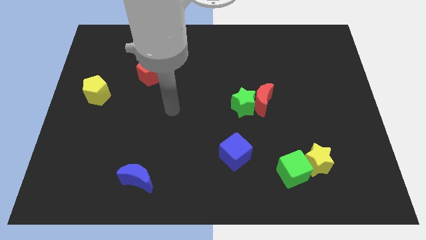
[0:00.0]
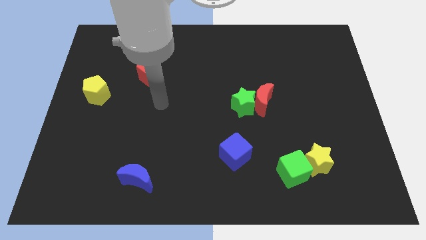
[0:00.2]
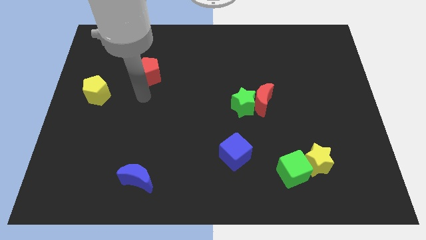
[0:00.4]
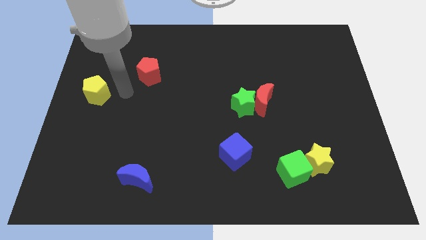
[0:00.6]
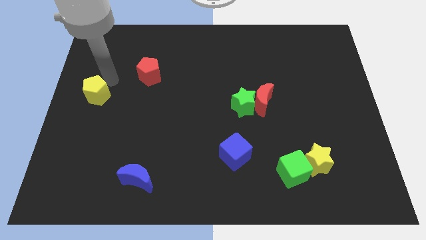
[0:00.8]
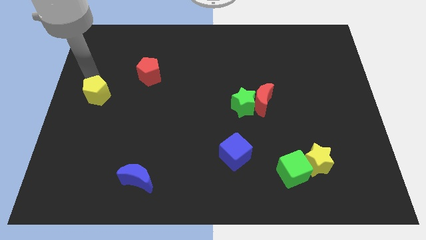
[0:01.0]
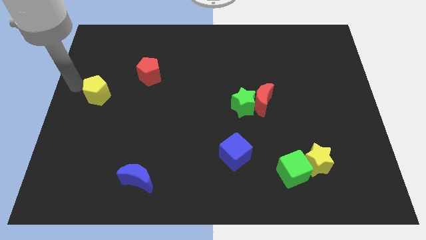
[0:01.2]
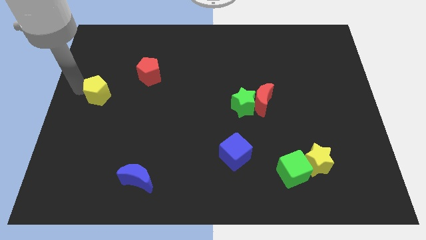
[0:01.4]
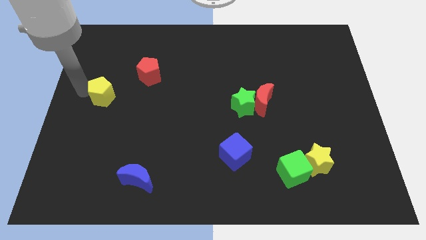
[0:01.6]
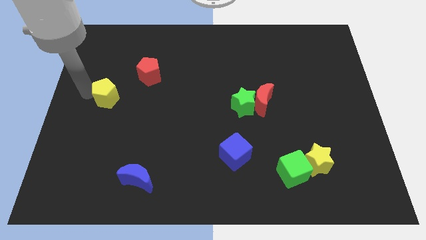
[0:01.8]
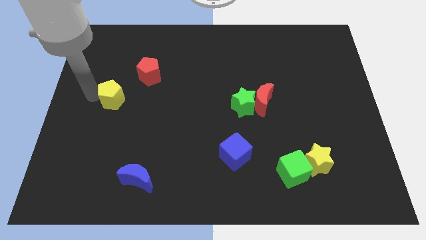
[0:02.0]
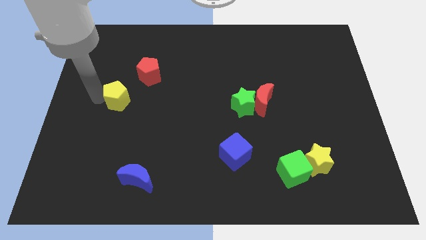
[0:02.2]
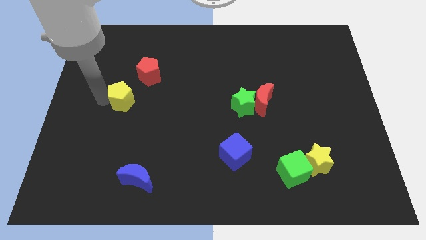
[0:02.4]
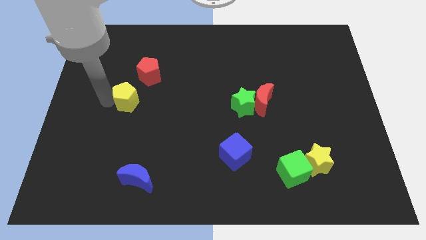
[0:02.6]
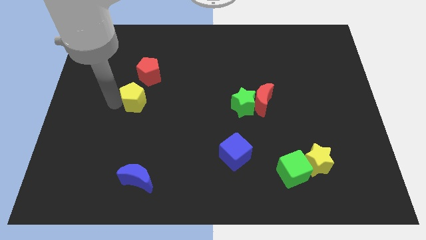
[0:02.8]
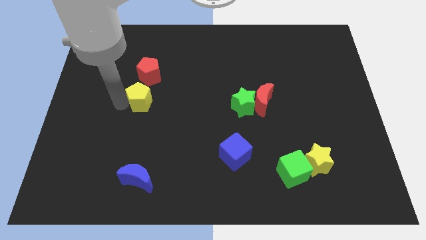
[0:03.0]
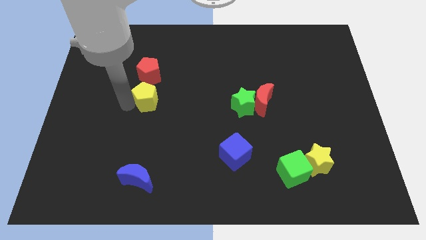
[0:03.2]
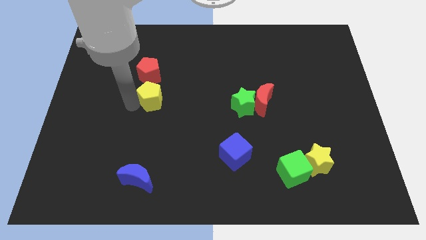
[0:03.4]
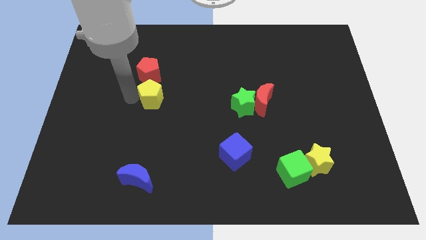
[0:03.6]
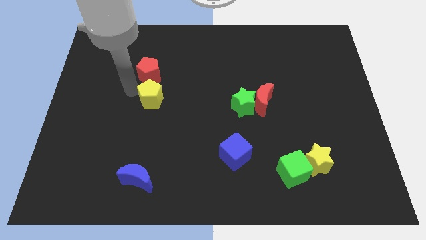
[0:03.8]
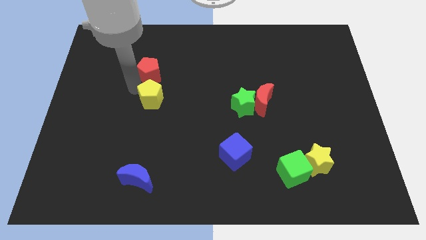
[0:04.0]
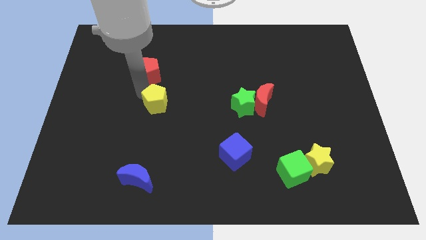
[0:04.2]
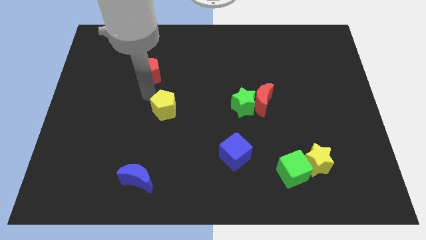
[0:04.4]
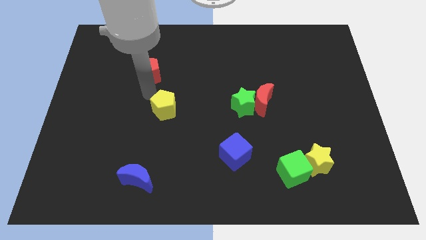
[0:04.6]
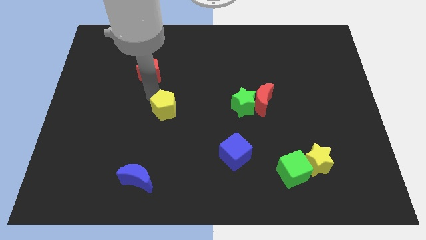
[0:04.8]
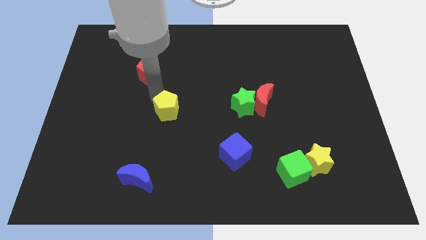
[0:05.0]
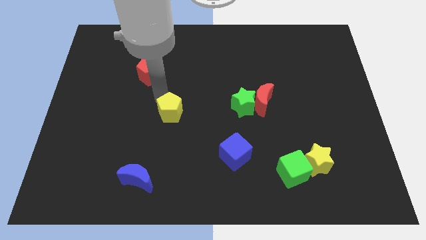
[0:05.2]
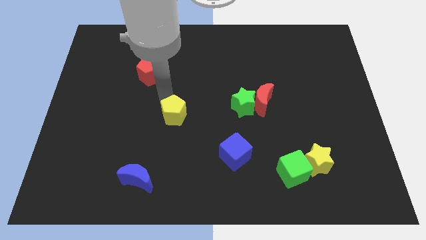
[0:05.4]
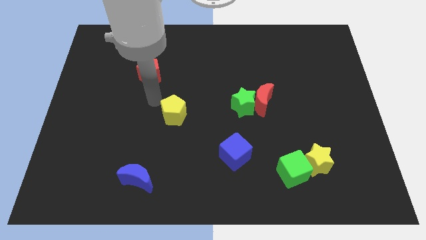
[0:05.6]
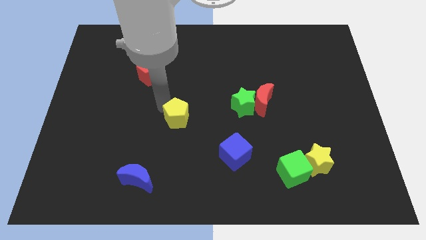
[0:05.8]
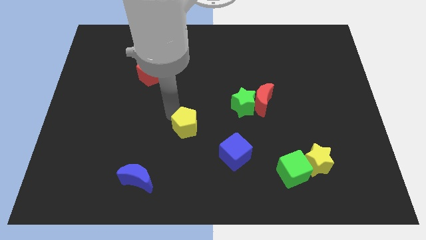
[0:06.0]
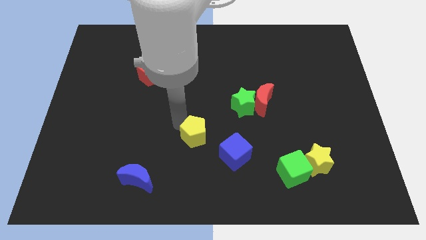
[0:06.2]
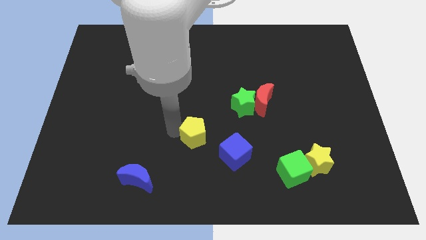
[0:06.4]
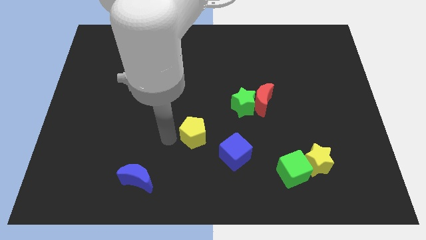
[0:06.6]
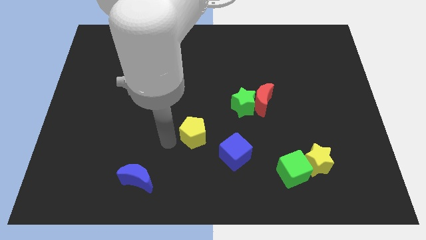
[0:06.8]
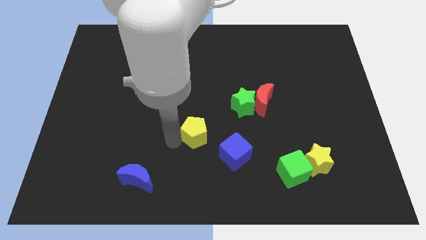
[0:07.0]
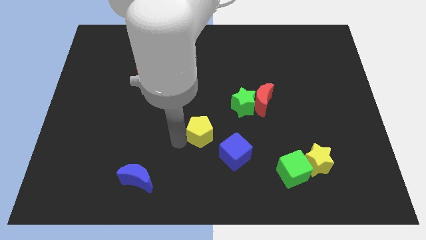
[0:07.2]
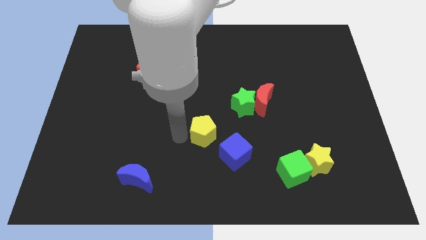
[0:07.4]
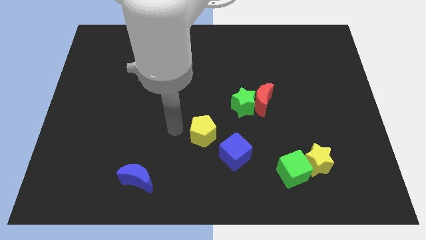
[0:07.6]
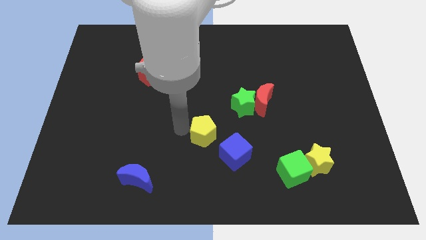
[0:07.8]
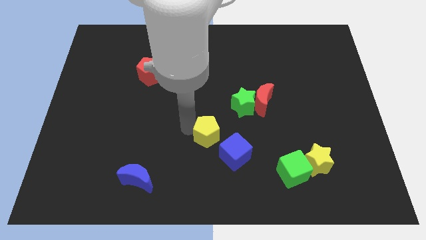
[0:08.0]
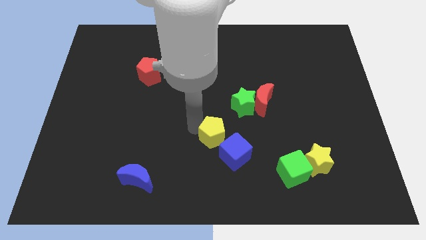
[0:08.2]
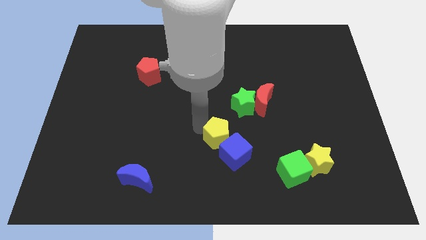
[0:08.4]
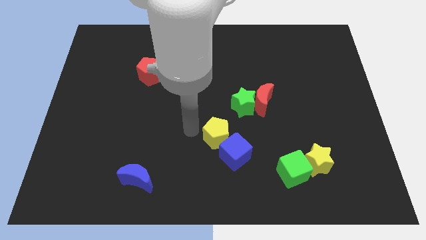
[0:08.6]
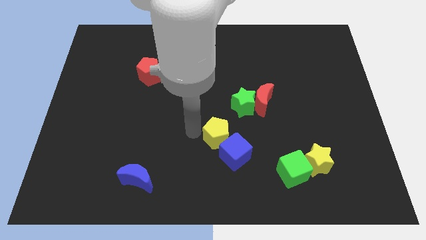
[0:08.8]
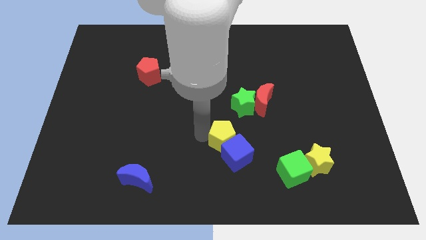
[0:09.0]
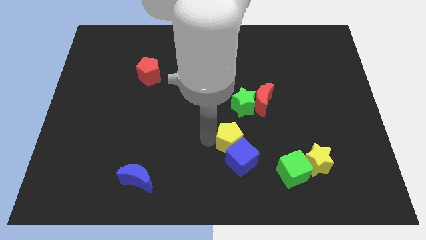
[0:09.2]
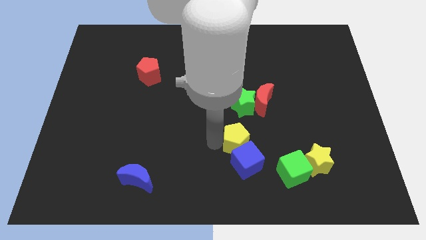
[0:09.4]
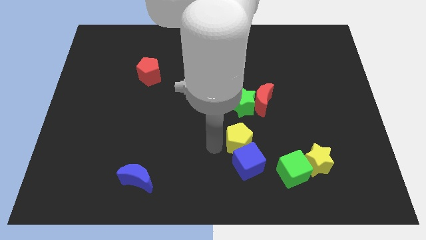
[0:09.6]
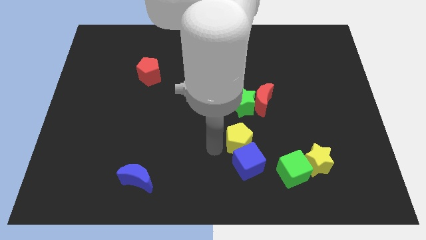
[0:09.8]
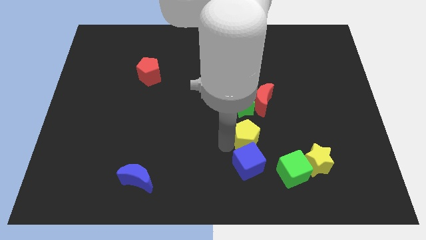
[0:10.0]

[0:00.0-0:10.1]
put the yellow pentagon to the top left side of the green cube

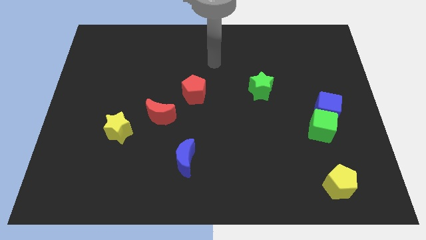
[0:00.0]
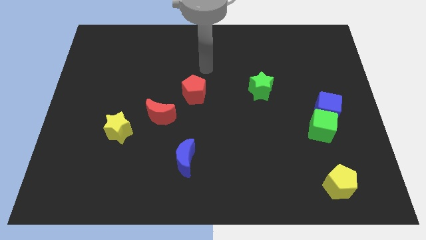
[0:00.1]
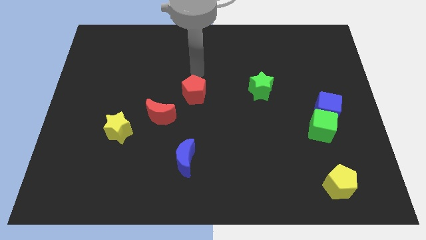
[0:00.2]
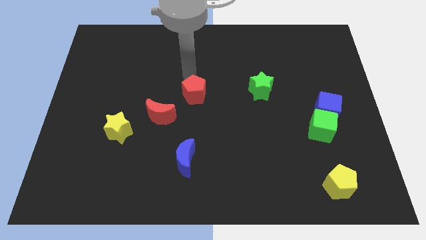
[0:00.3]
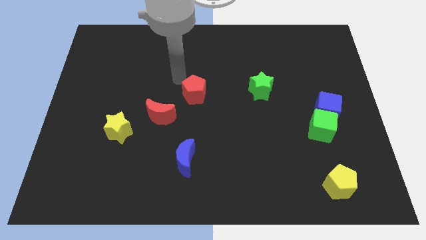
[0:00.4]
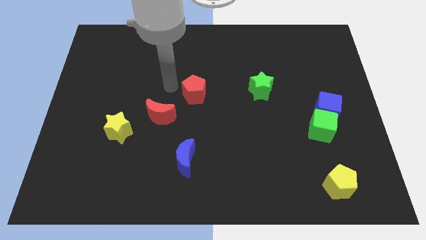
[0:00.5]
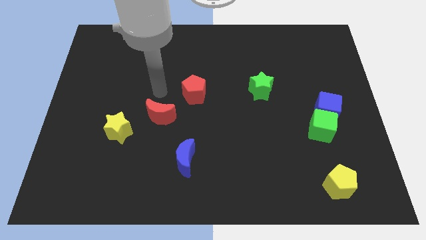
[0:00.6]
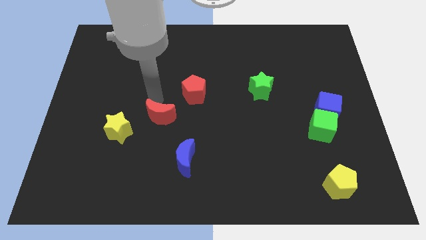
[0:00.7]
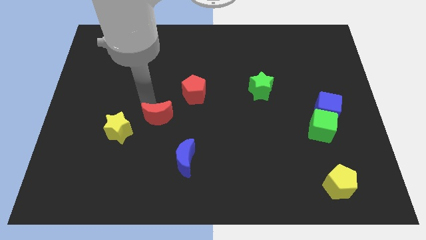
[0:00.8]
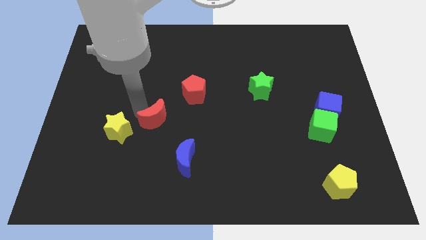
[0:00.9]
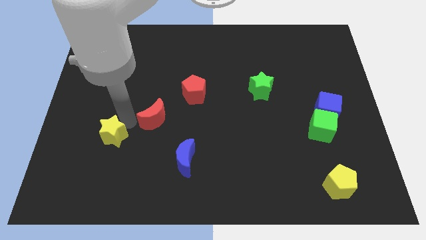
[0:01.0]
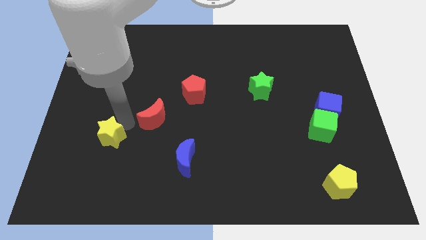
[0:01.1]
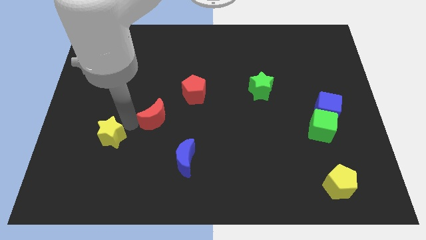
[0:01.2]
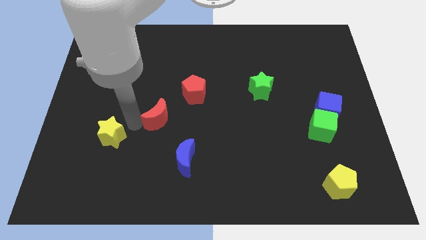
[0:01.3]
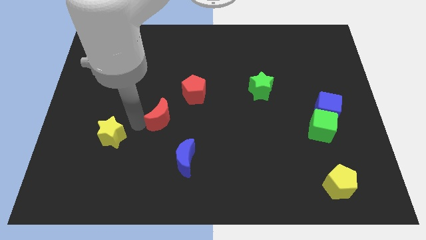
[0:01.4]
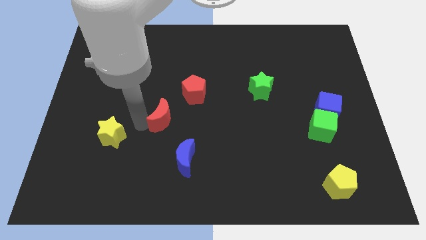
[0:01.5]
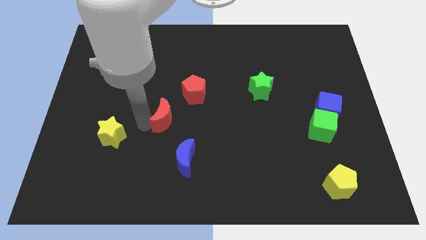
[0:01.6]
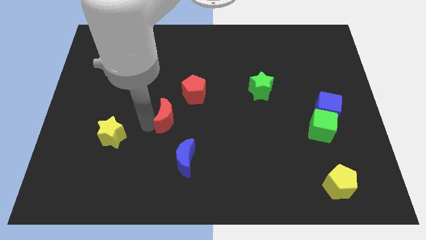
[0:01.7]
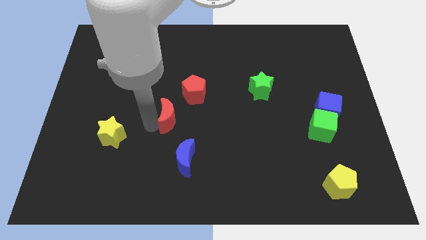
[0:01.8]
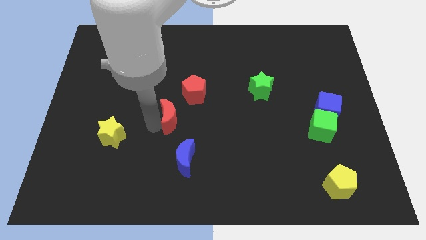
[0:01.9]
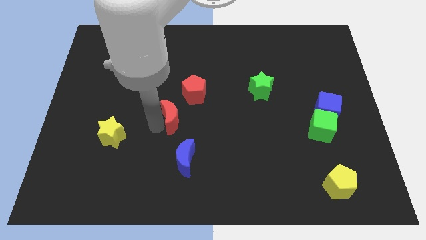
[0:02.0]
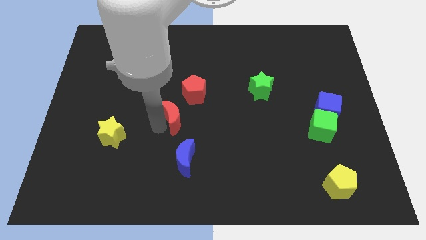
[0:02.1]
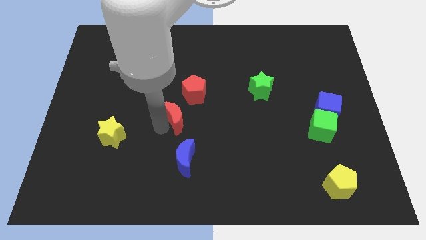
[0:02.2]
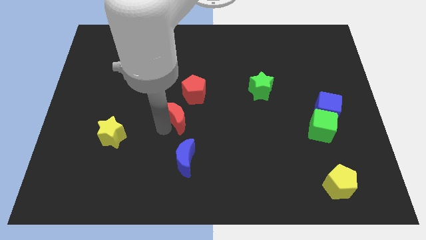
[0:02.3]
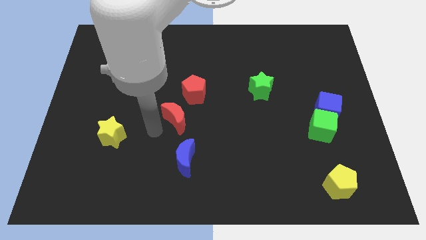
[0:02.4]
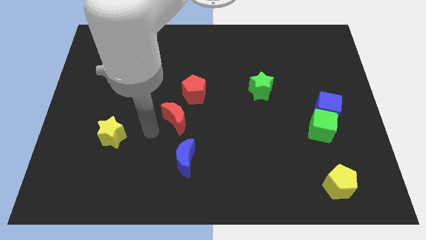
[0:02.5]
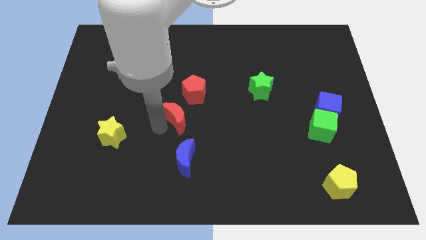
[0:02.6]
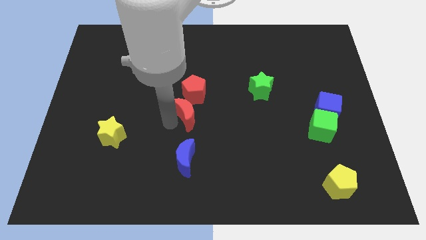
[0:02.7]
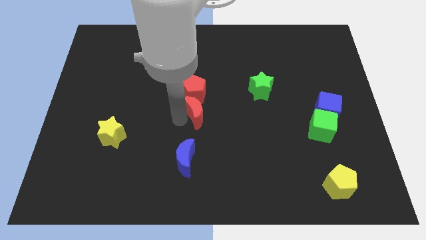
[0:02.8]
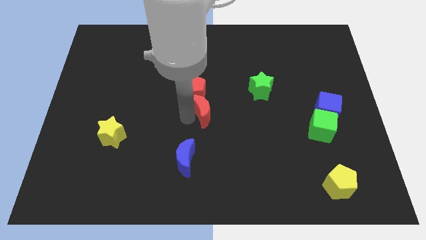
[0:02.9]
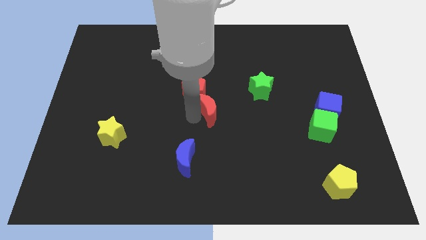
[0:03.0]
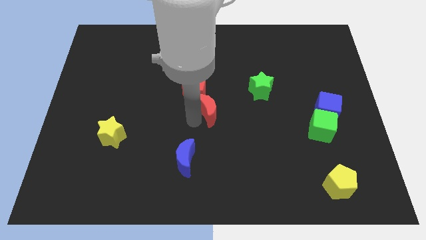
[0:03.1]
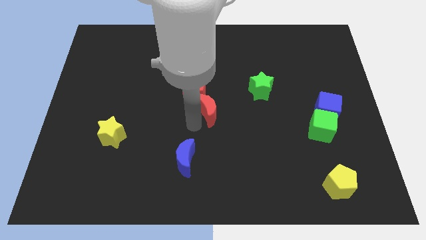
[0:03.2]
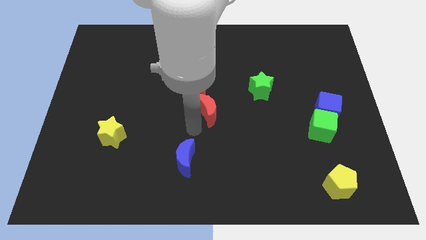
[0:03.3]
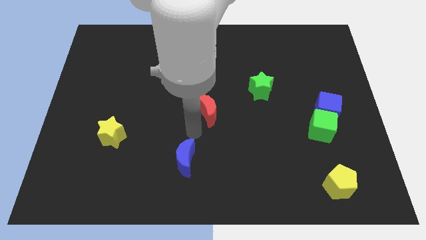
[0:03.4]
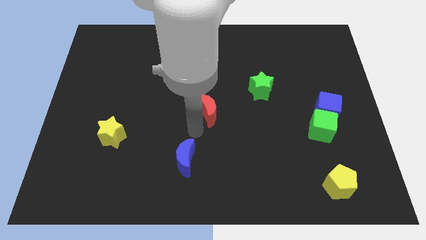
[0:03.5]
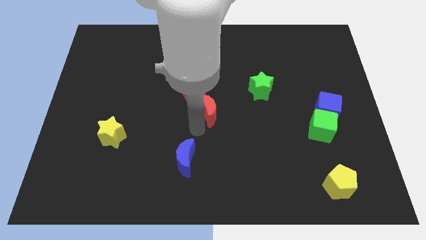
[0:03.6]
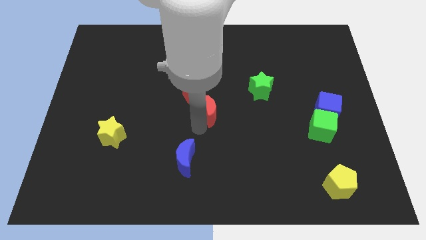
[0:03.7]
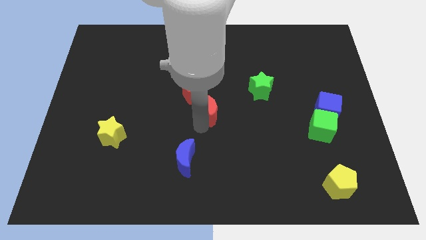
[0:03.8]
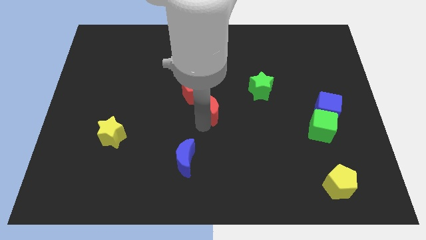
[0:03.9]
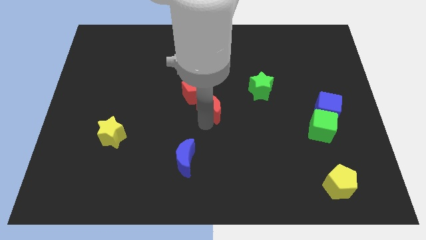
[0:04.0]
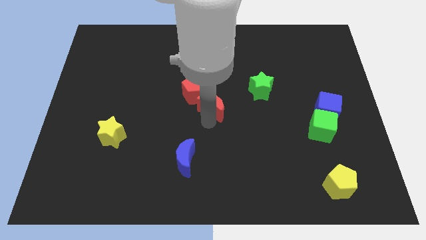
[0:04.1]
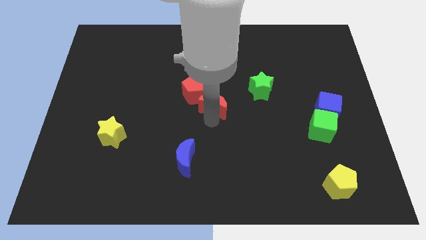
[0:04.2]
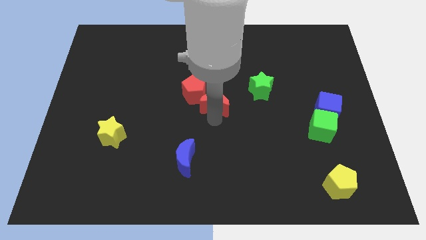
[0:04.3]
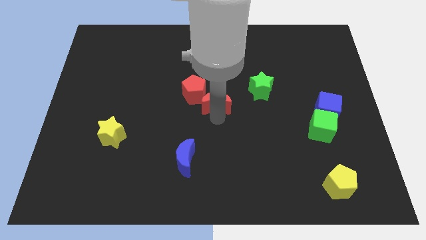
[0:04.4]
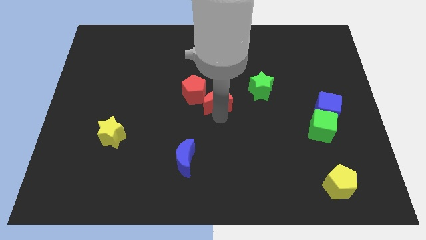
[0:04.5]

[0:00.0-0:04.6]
push the red moon to the left of the green star
